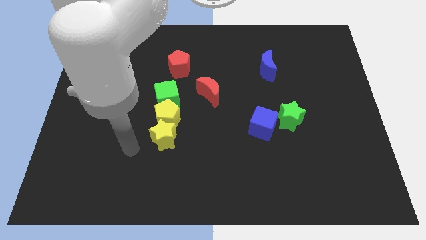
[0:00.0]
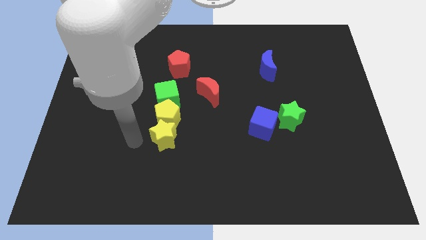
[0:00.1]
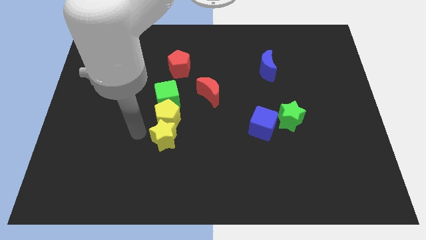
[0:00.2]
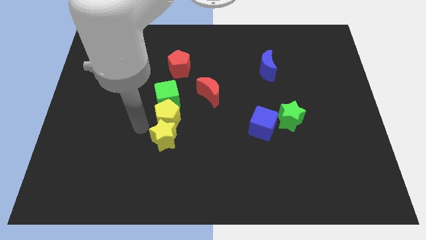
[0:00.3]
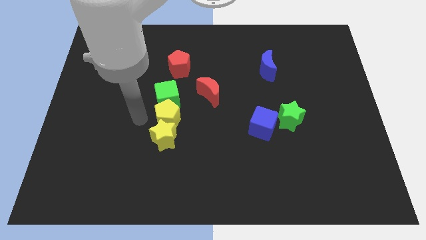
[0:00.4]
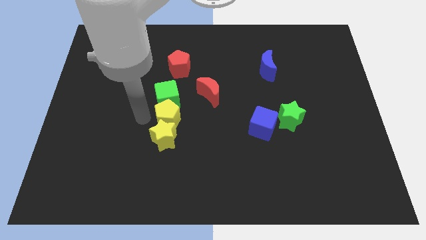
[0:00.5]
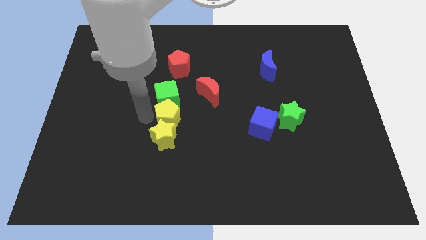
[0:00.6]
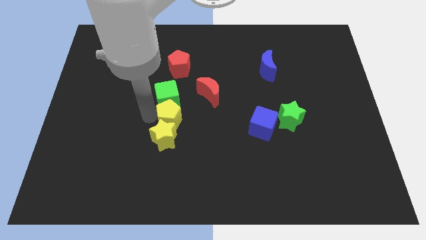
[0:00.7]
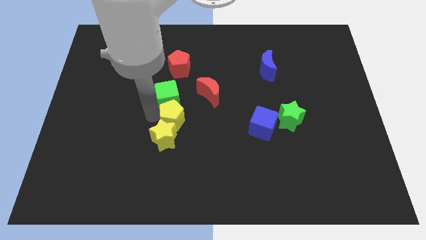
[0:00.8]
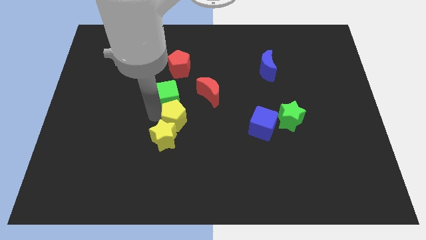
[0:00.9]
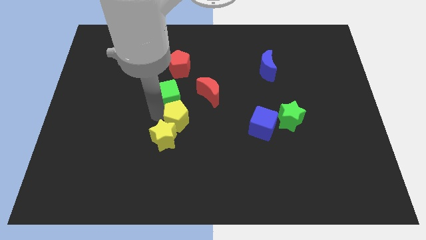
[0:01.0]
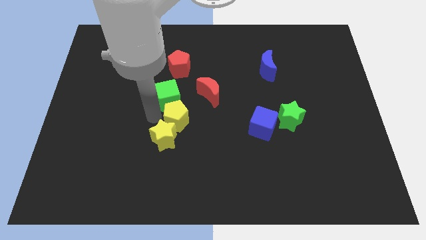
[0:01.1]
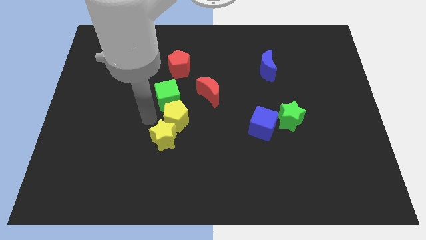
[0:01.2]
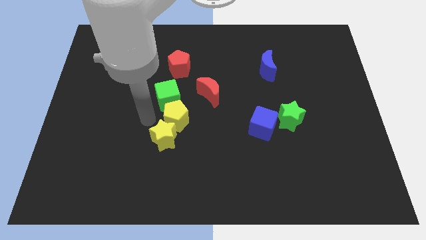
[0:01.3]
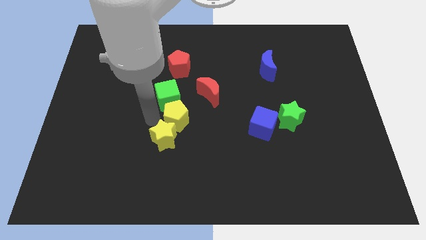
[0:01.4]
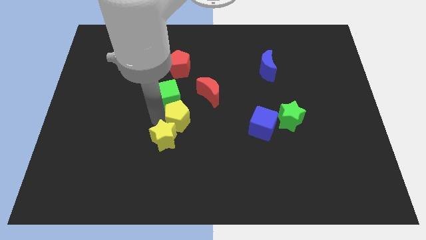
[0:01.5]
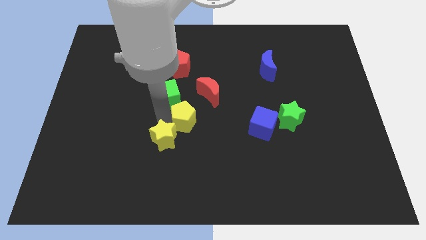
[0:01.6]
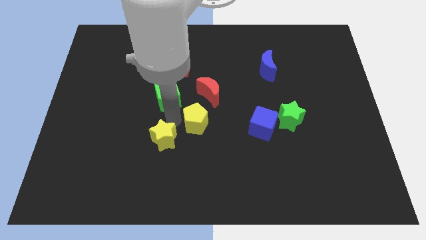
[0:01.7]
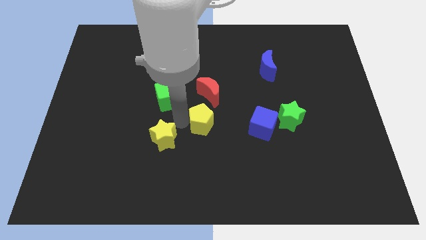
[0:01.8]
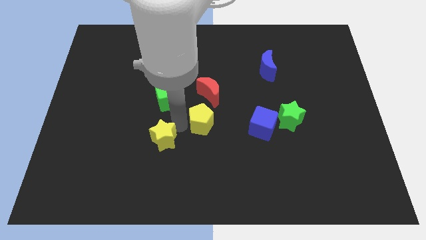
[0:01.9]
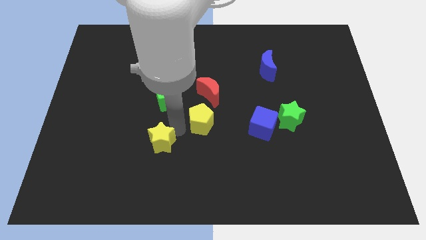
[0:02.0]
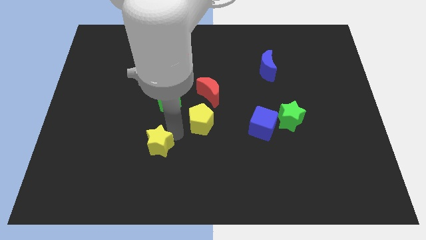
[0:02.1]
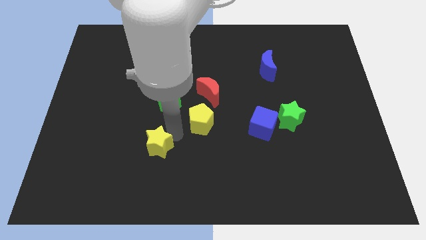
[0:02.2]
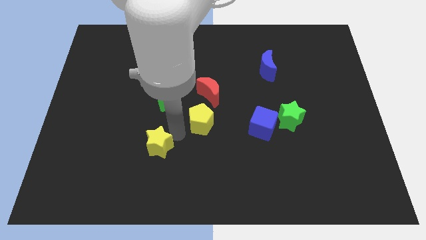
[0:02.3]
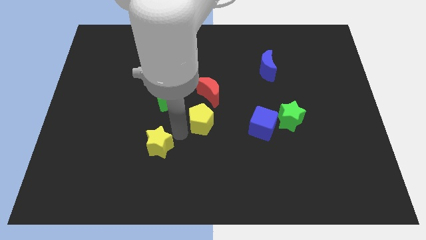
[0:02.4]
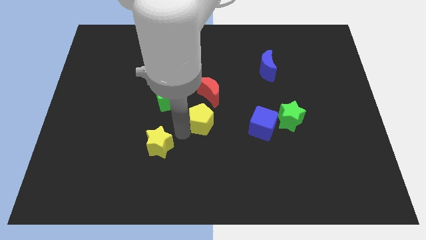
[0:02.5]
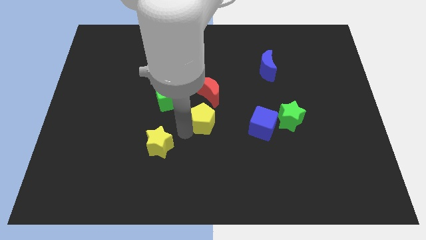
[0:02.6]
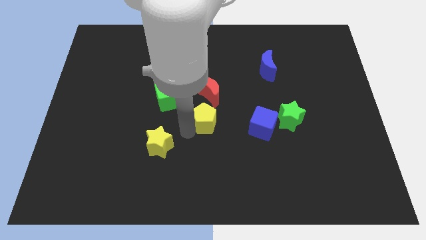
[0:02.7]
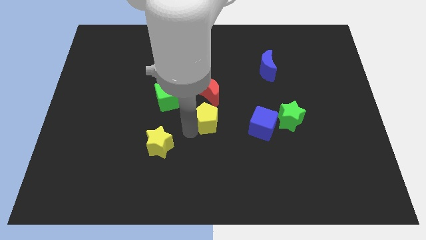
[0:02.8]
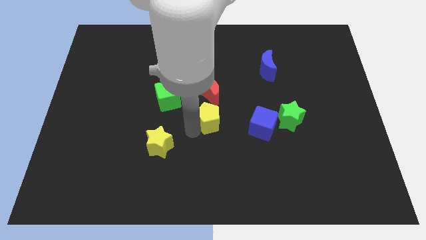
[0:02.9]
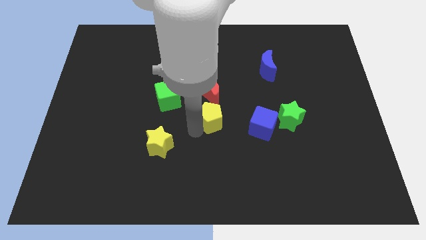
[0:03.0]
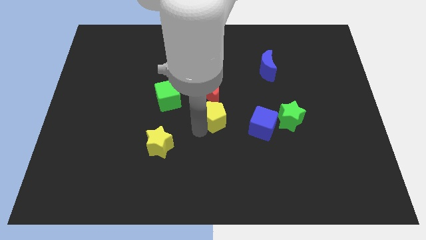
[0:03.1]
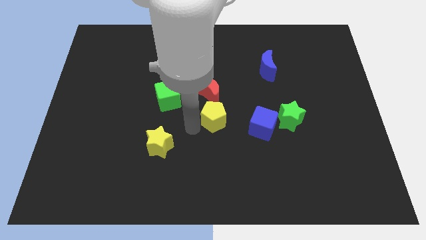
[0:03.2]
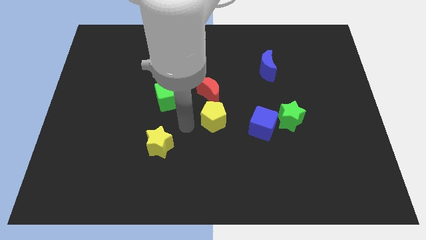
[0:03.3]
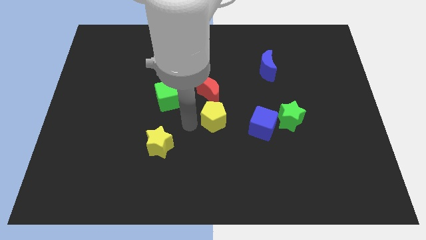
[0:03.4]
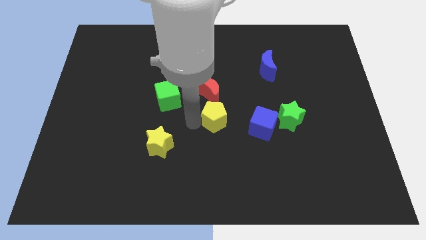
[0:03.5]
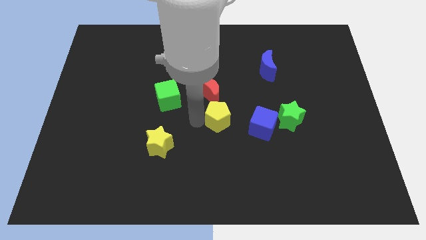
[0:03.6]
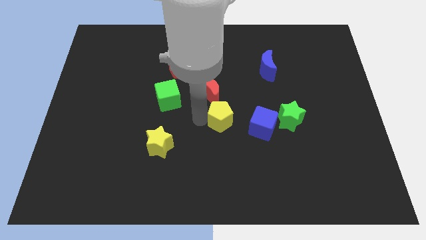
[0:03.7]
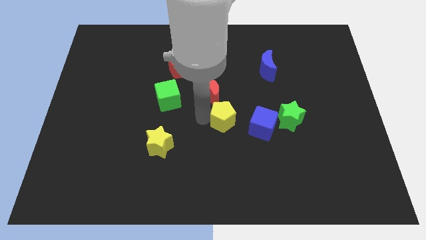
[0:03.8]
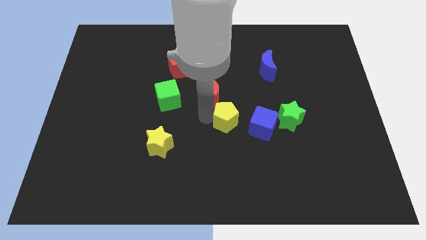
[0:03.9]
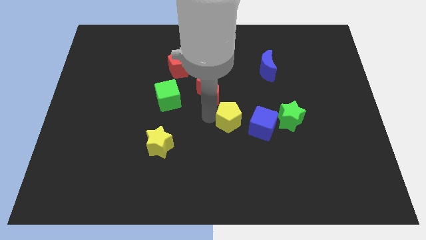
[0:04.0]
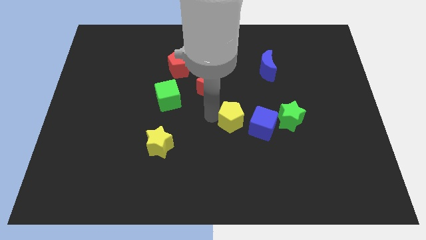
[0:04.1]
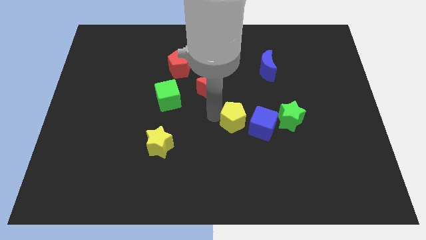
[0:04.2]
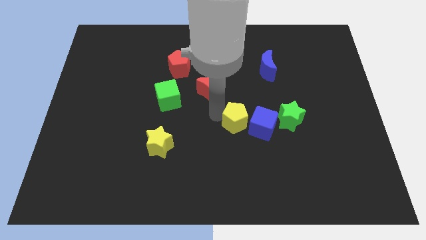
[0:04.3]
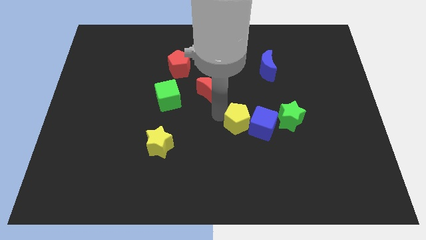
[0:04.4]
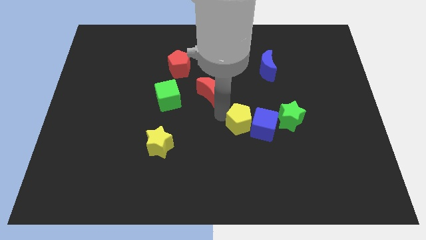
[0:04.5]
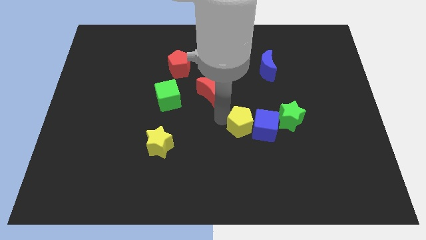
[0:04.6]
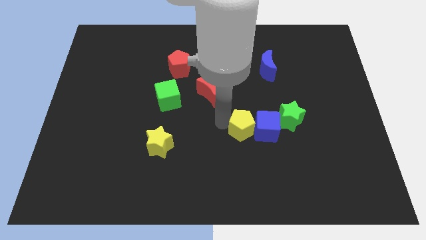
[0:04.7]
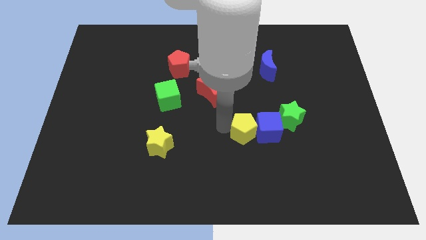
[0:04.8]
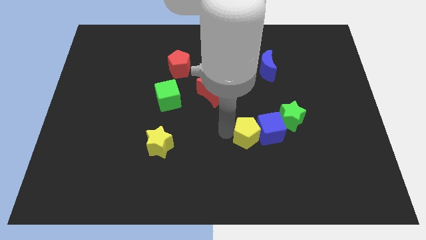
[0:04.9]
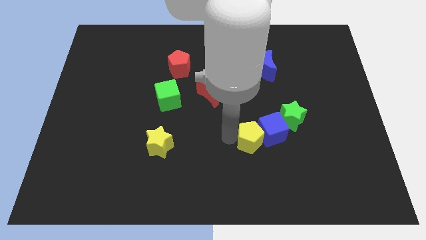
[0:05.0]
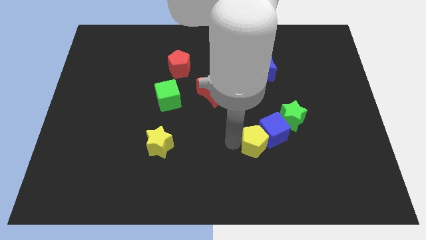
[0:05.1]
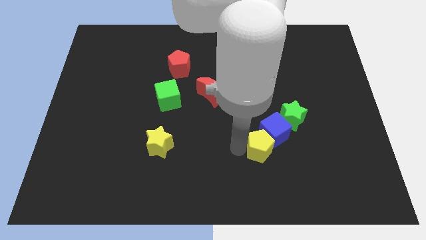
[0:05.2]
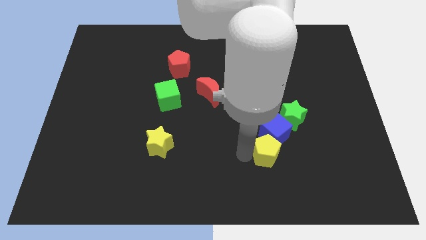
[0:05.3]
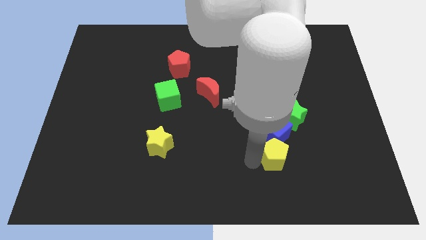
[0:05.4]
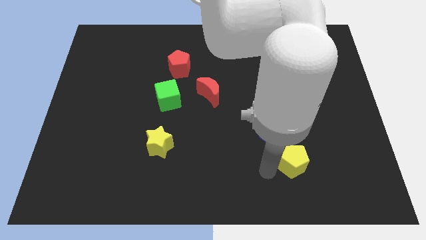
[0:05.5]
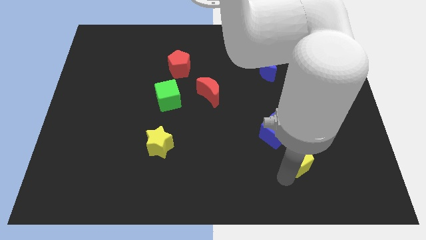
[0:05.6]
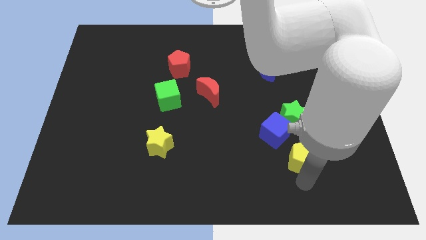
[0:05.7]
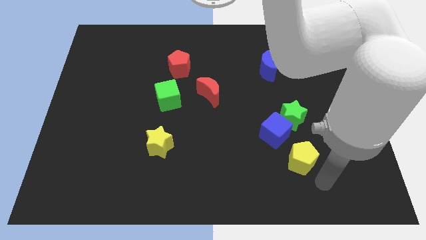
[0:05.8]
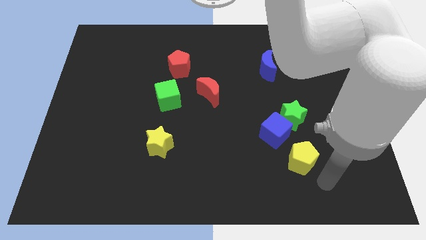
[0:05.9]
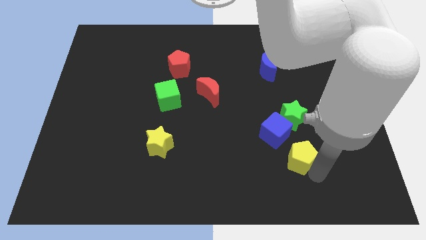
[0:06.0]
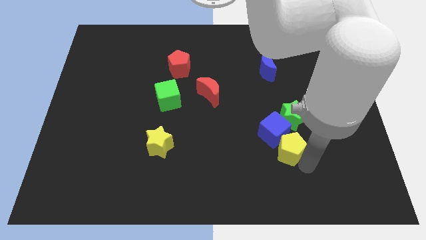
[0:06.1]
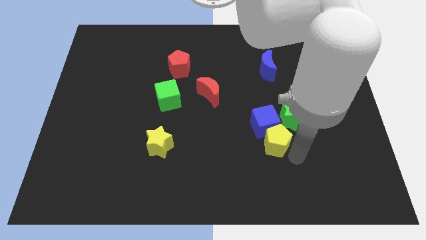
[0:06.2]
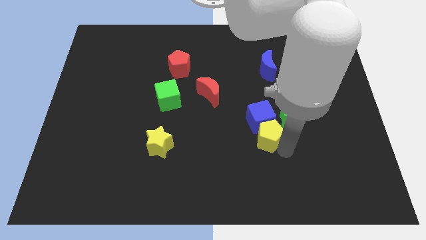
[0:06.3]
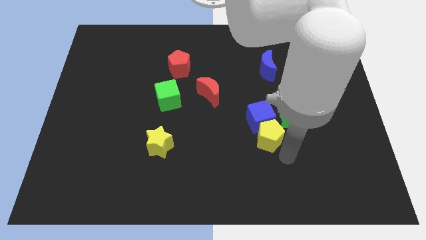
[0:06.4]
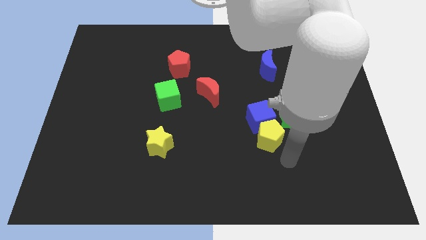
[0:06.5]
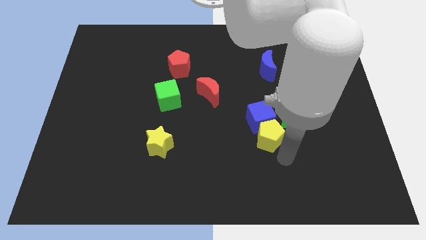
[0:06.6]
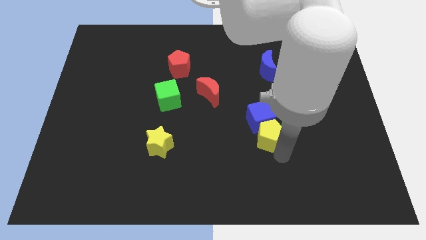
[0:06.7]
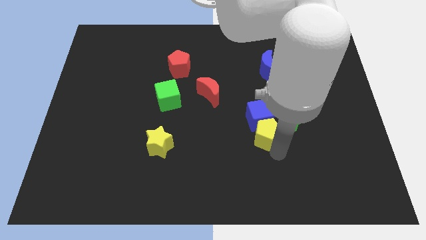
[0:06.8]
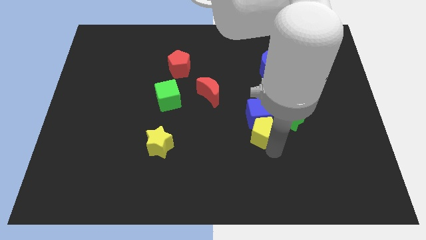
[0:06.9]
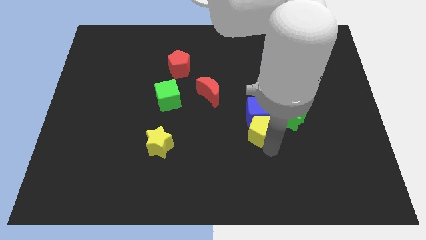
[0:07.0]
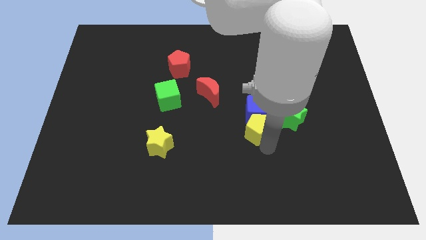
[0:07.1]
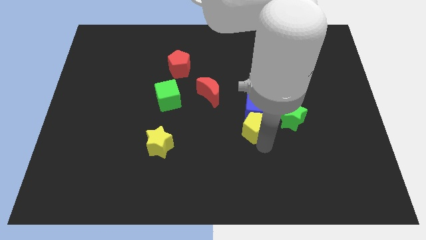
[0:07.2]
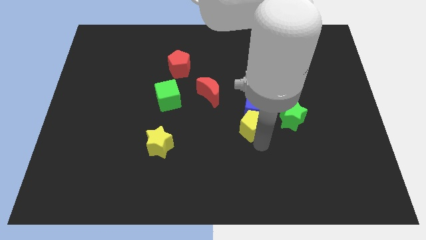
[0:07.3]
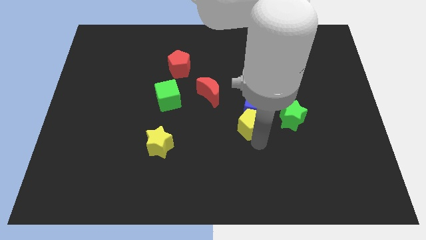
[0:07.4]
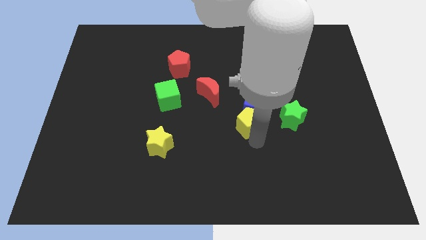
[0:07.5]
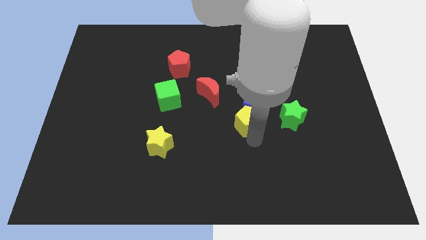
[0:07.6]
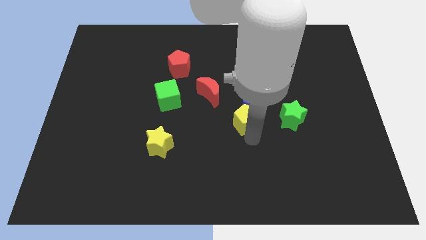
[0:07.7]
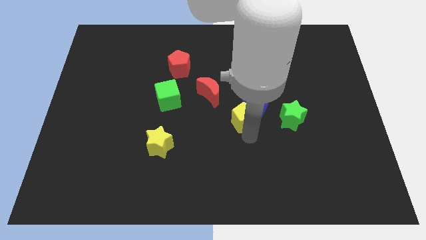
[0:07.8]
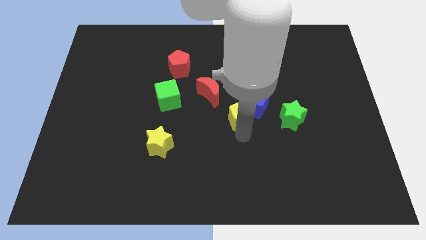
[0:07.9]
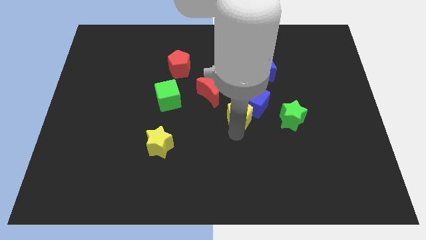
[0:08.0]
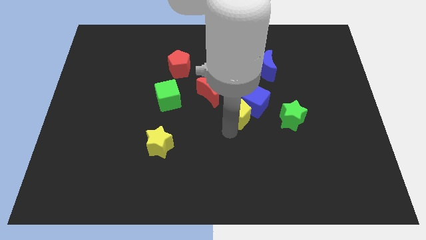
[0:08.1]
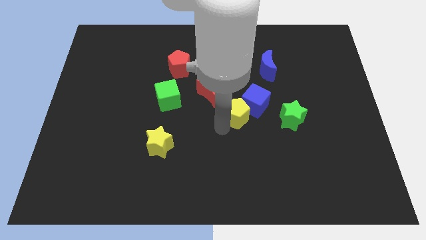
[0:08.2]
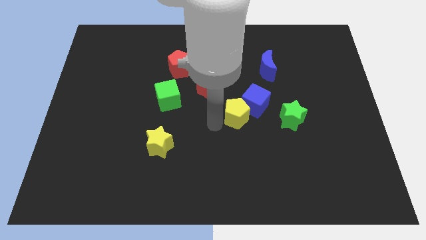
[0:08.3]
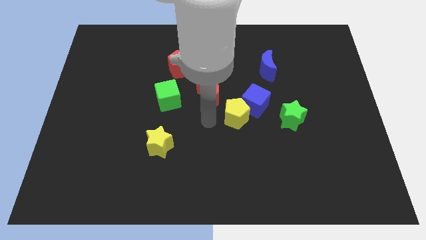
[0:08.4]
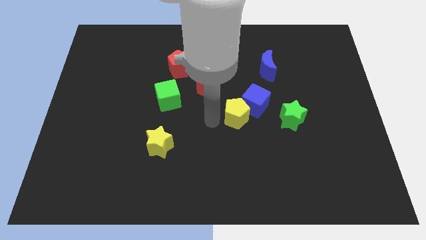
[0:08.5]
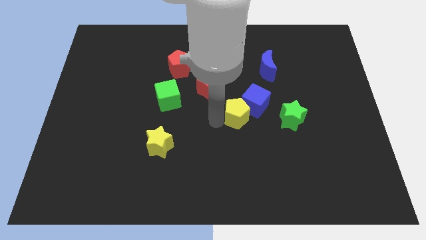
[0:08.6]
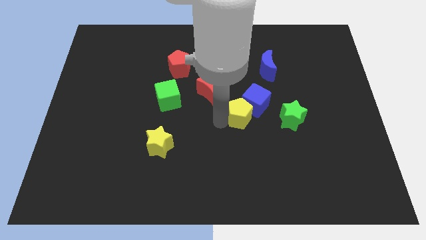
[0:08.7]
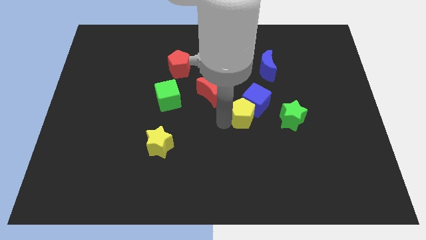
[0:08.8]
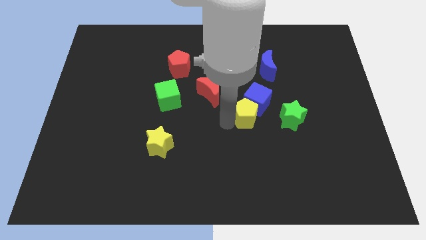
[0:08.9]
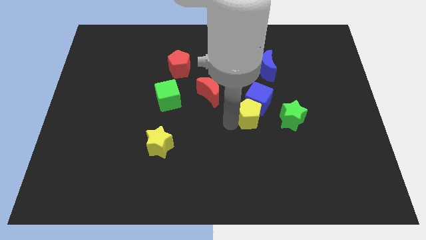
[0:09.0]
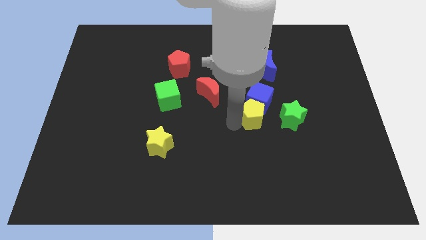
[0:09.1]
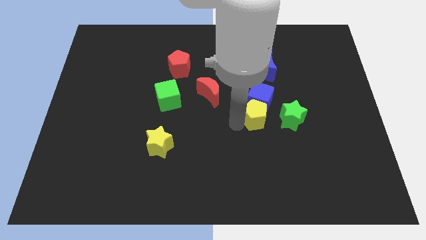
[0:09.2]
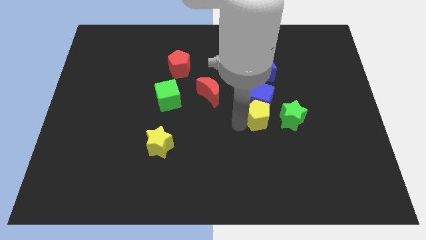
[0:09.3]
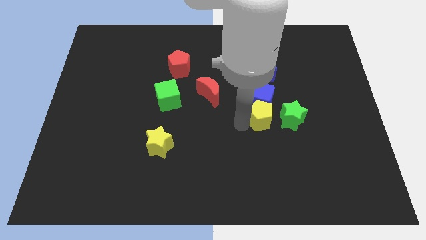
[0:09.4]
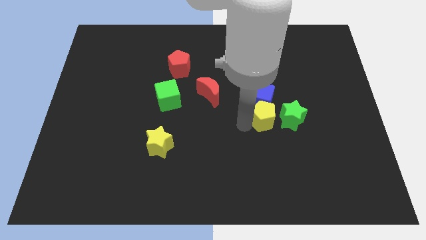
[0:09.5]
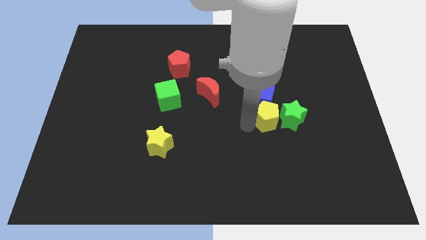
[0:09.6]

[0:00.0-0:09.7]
slide the yellow pentagon towards the green star
